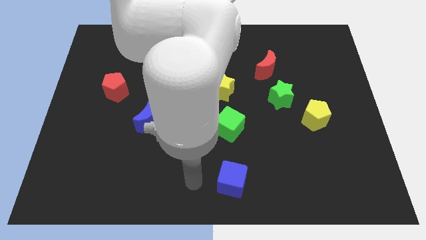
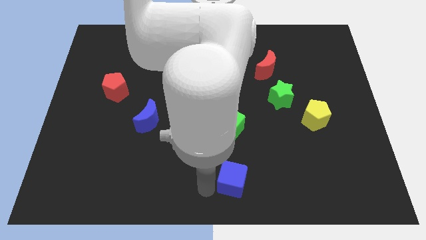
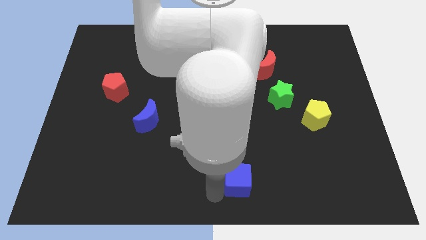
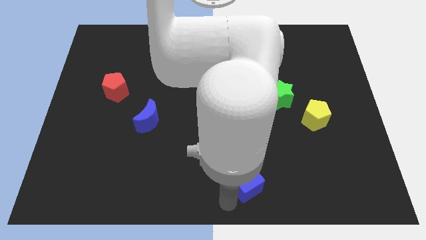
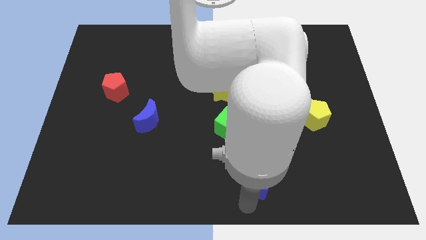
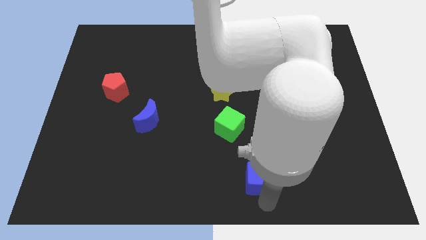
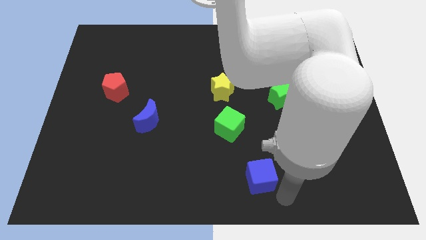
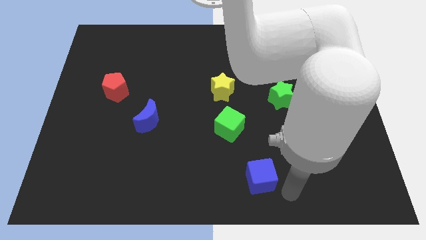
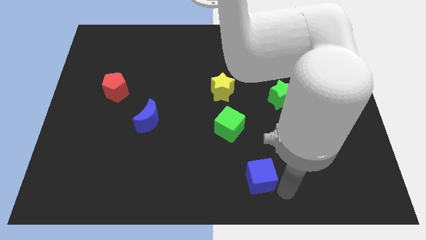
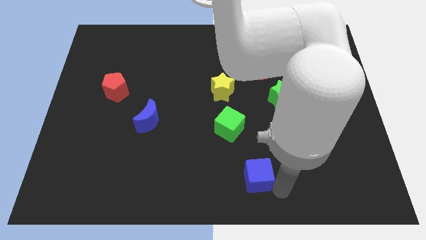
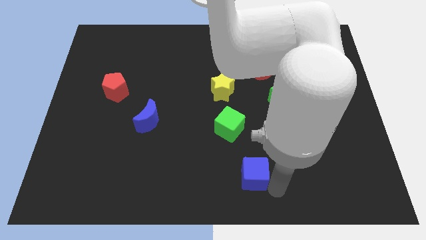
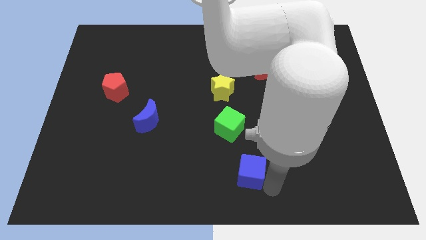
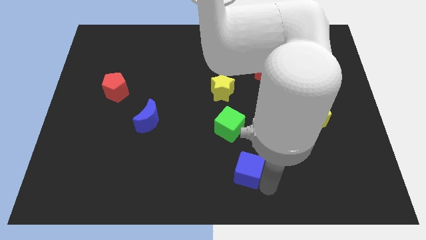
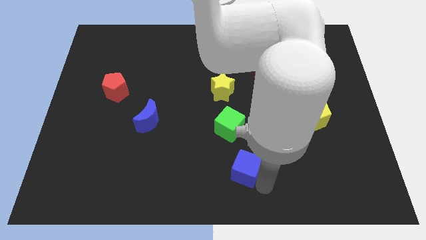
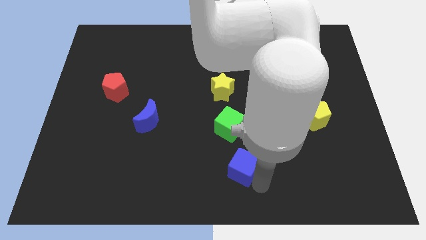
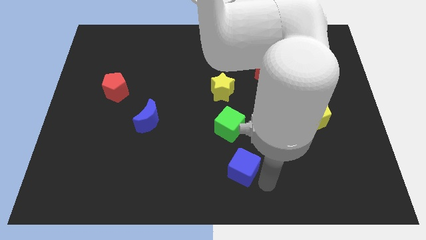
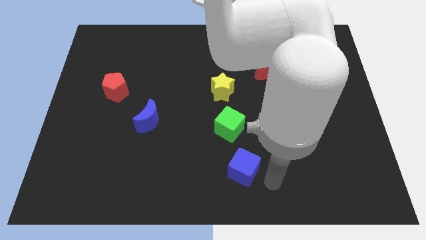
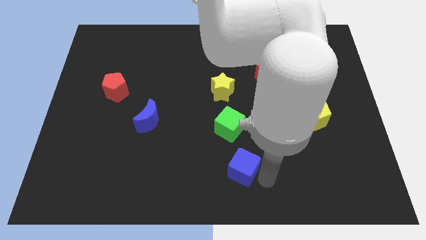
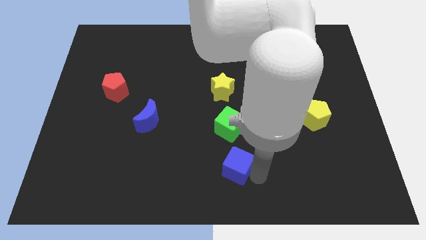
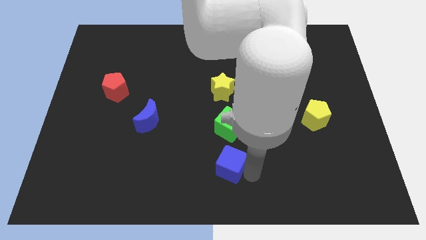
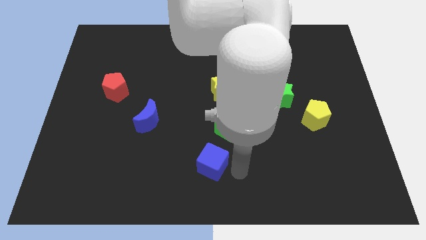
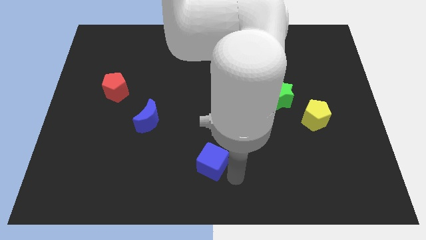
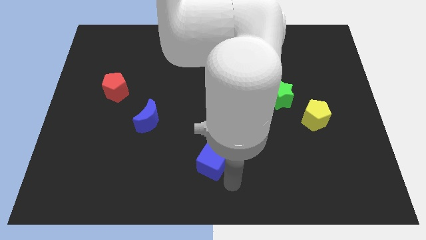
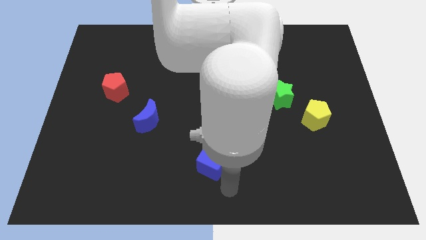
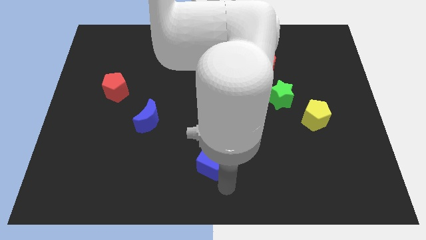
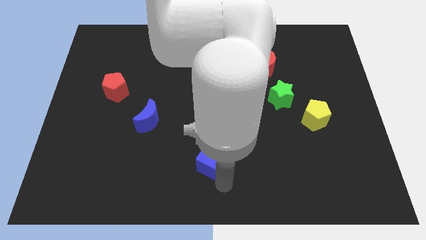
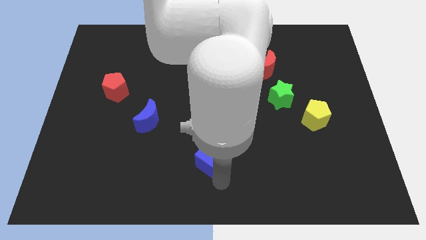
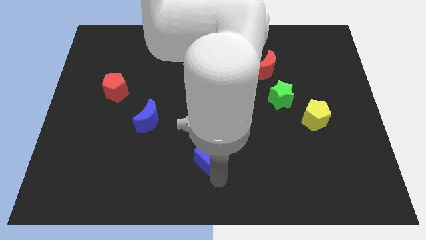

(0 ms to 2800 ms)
move the blue cube upwards and to the left a little

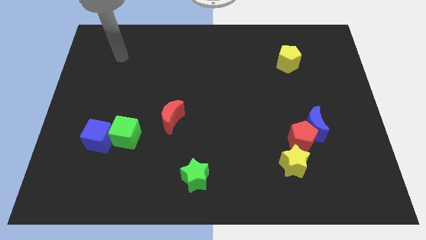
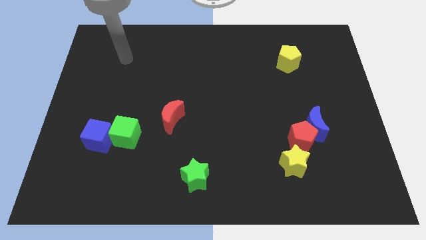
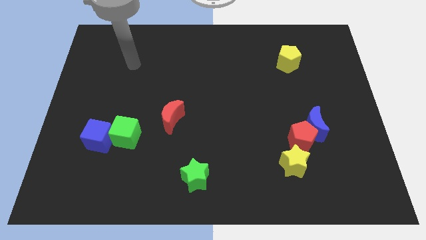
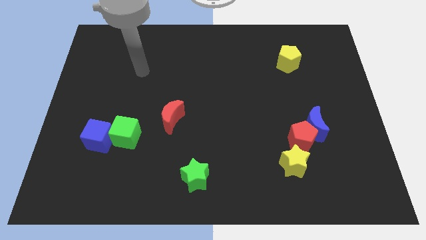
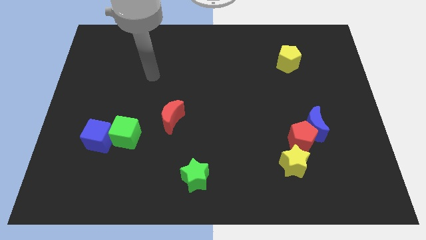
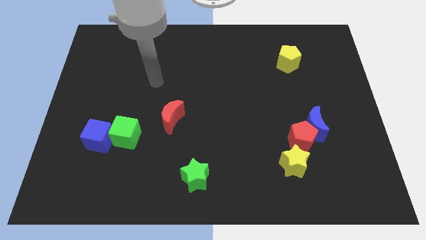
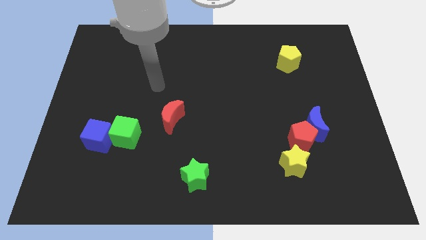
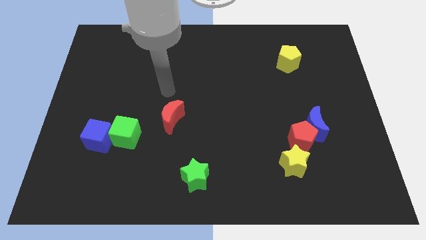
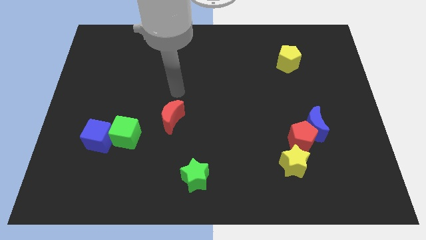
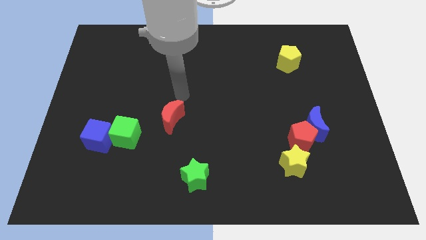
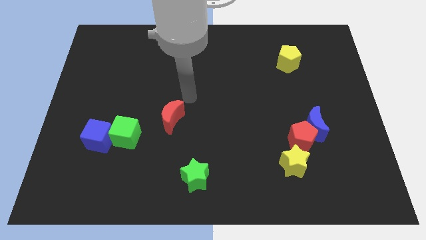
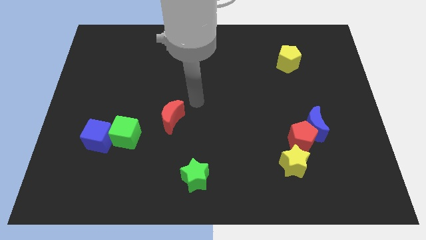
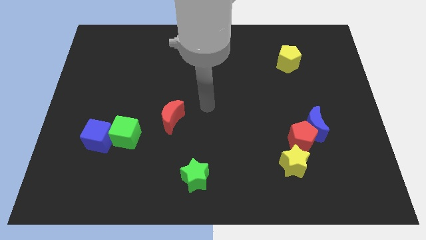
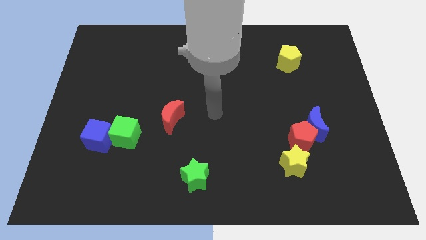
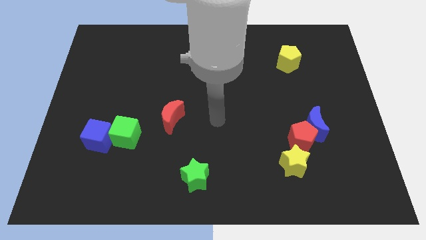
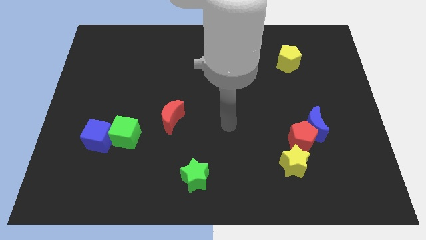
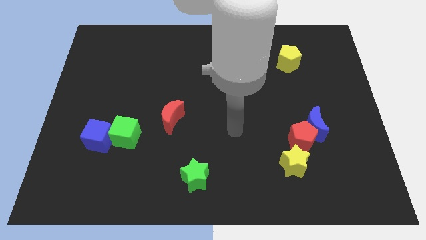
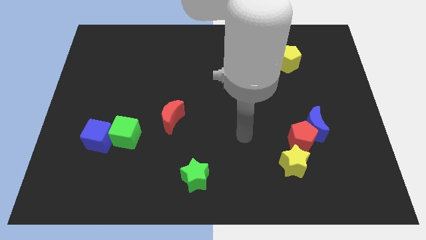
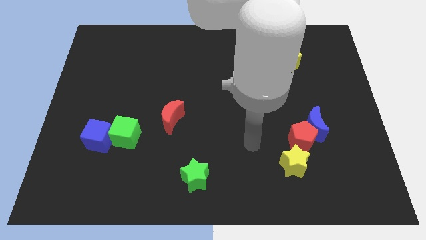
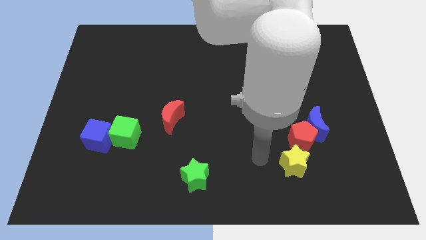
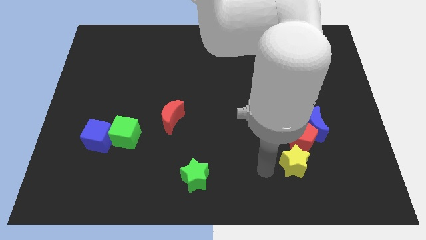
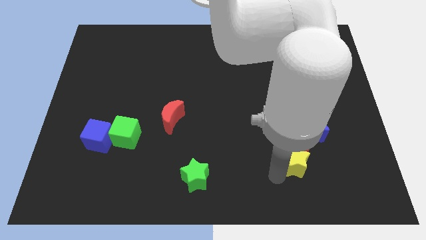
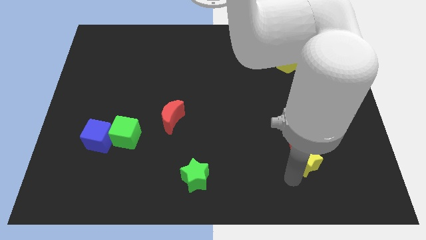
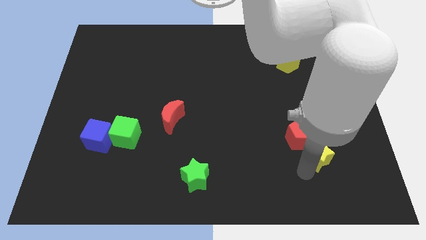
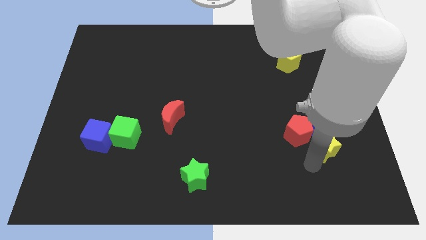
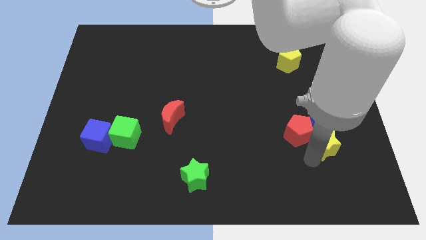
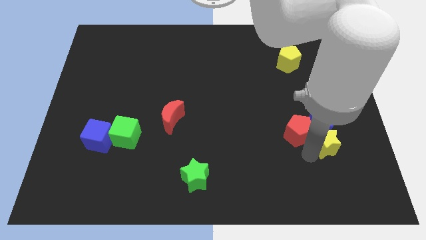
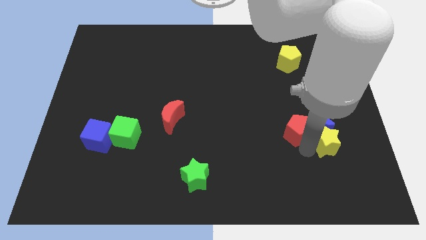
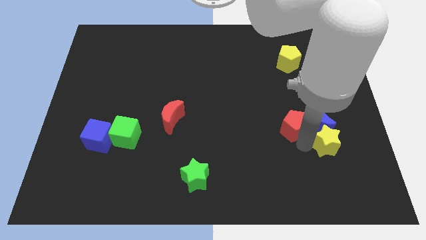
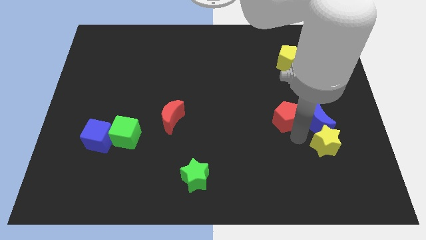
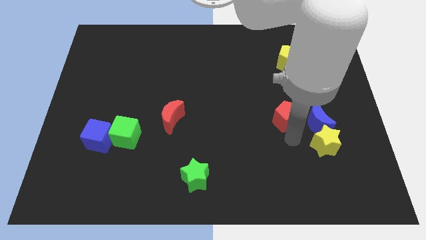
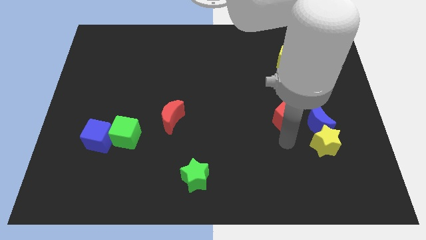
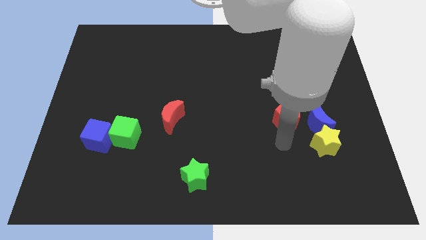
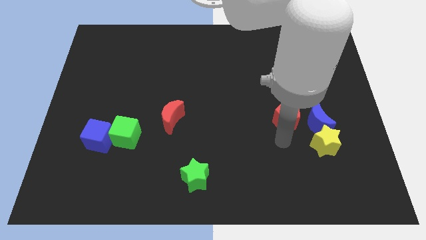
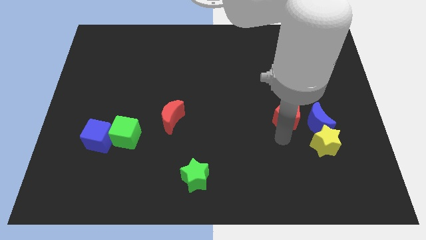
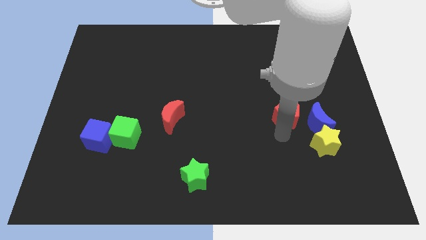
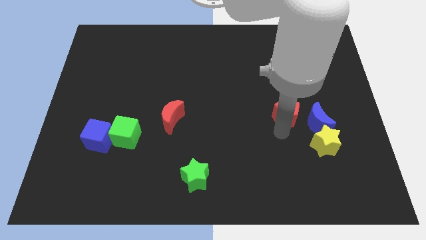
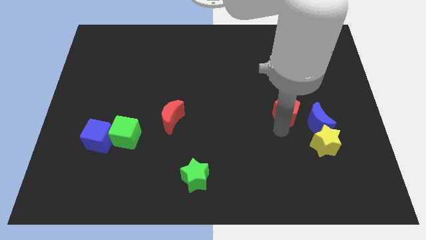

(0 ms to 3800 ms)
slightly move the red pentagon upwards

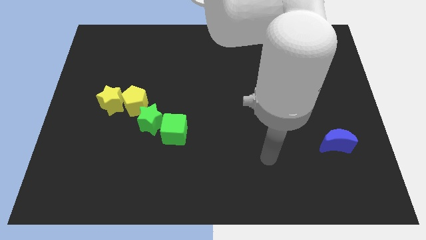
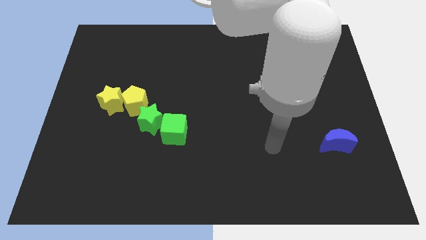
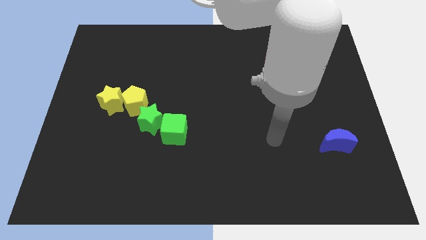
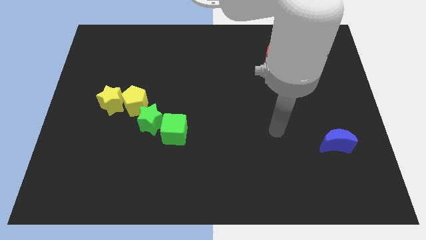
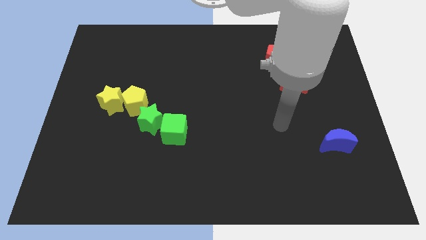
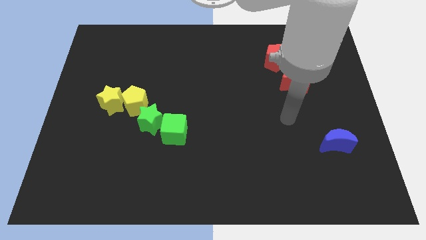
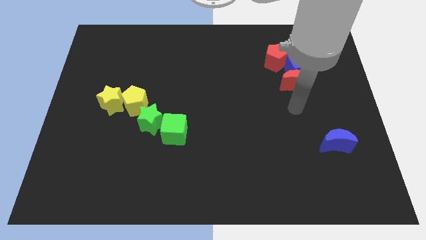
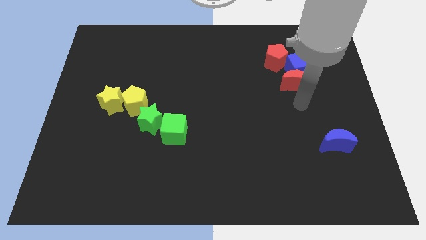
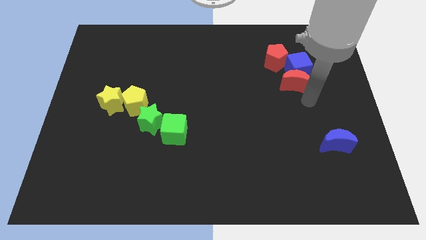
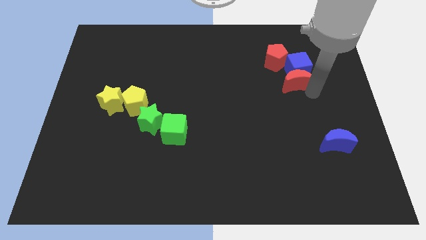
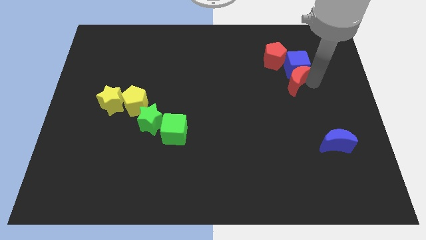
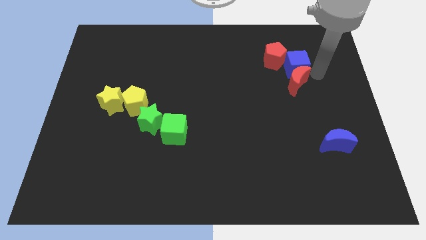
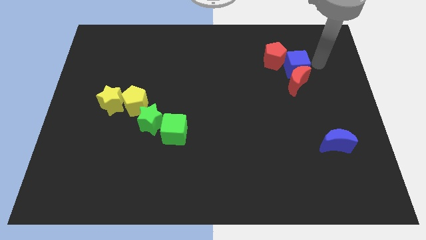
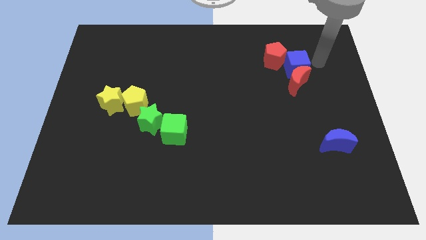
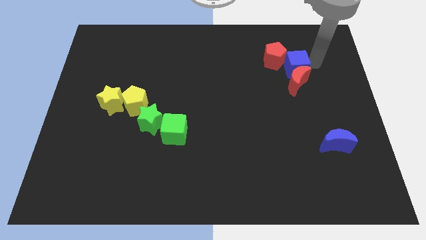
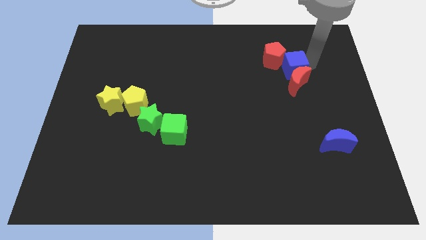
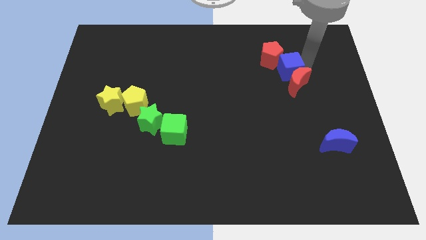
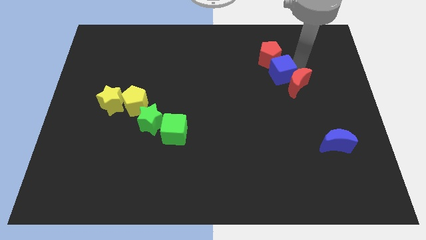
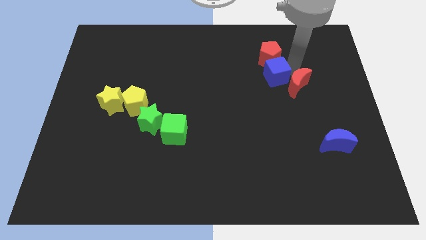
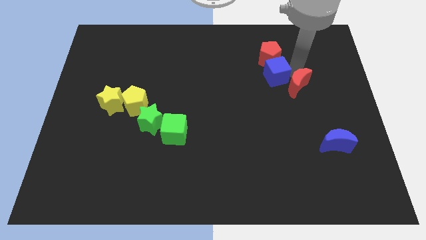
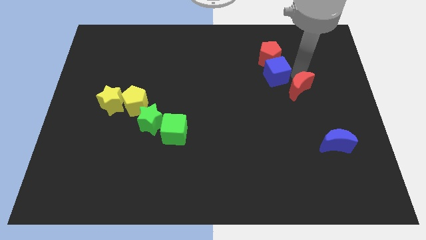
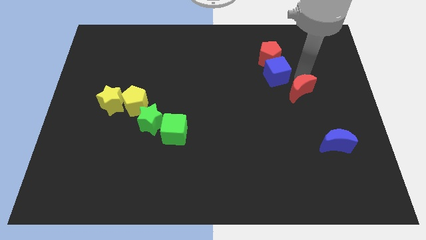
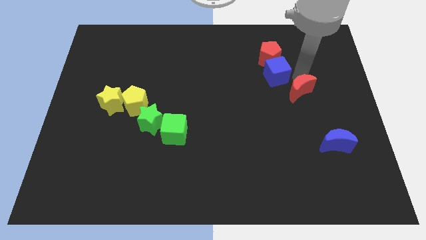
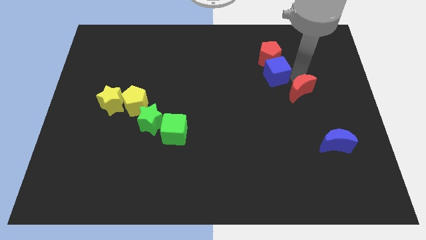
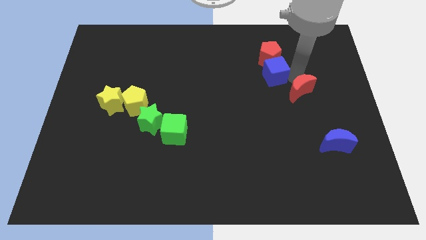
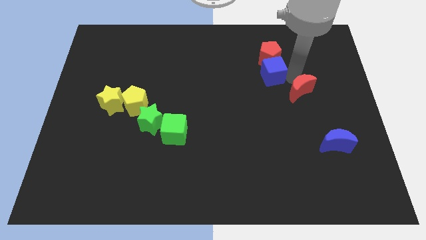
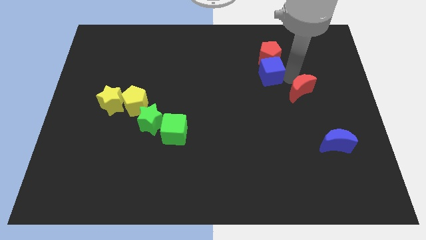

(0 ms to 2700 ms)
push the blue cube a bit left
